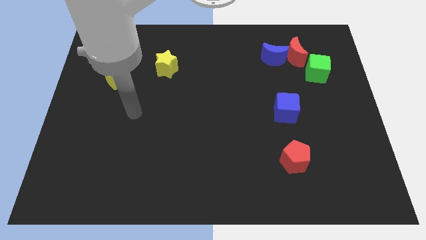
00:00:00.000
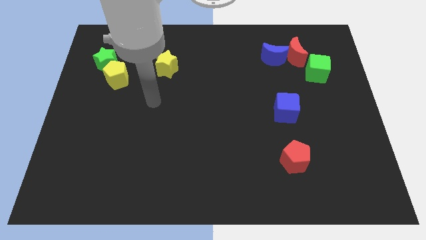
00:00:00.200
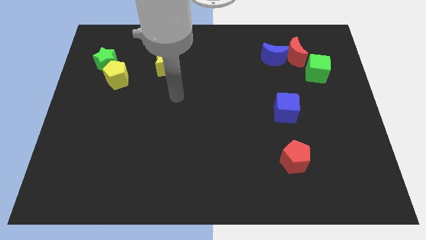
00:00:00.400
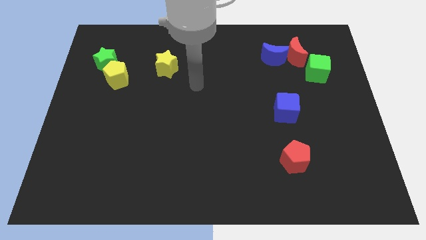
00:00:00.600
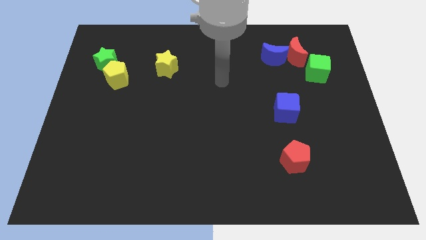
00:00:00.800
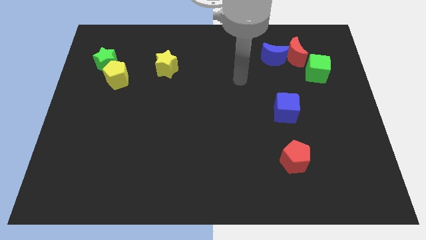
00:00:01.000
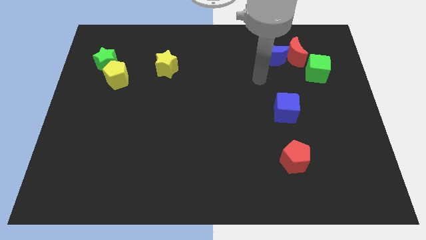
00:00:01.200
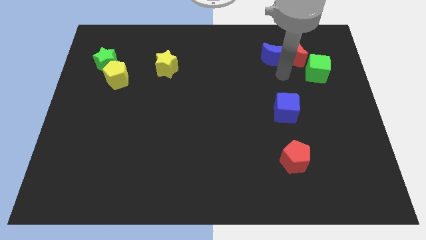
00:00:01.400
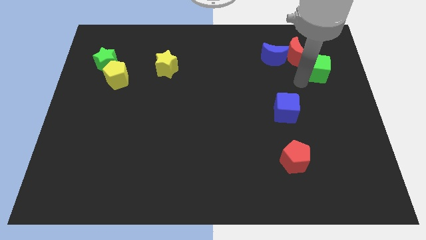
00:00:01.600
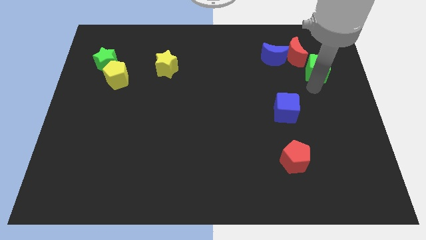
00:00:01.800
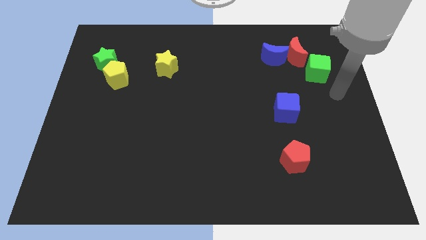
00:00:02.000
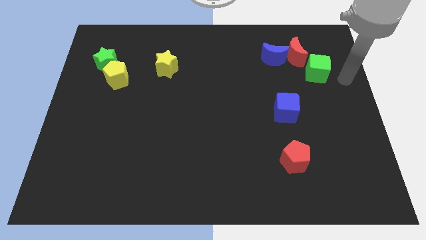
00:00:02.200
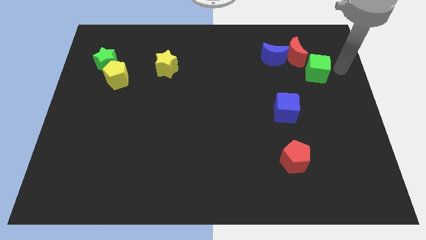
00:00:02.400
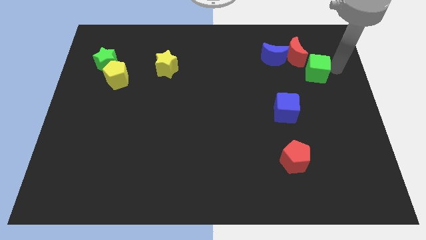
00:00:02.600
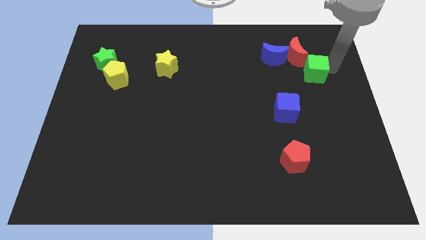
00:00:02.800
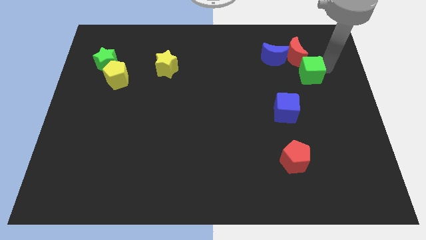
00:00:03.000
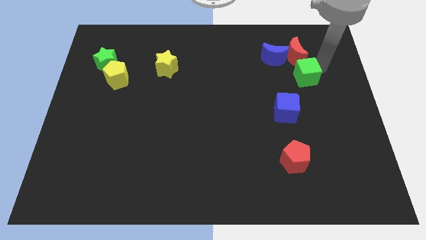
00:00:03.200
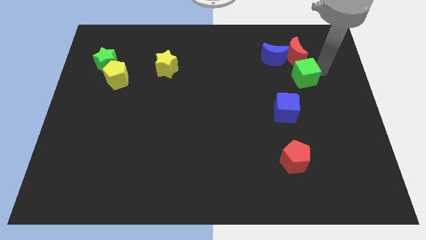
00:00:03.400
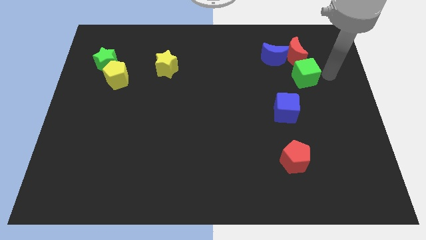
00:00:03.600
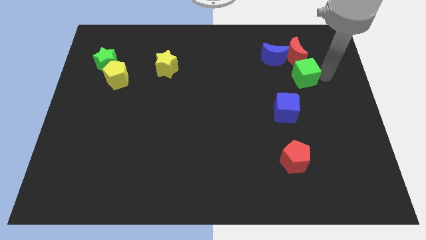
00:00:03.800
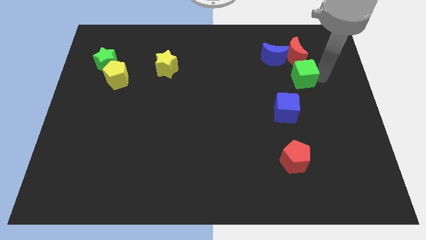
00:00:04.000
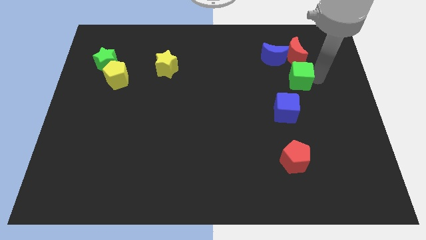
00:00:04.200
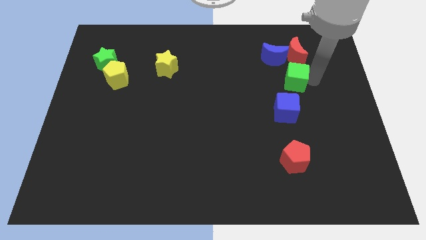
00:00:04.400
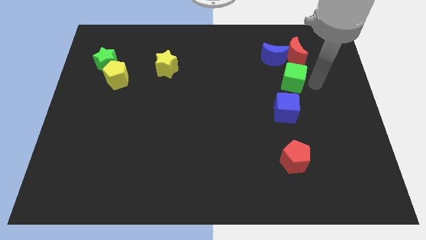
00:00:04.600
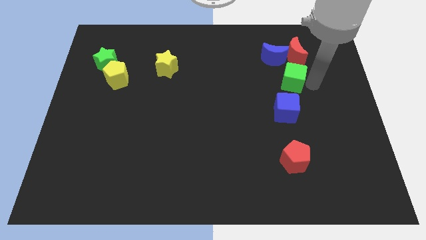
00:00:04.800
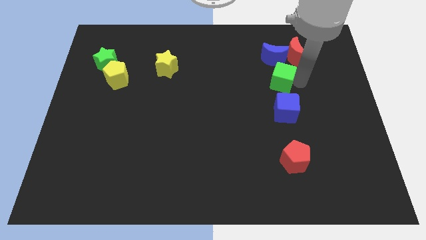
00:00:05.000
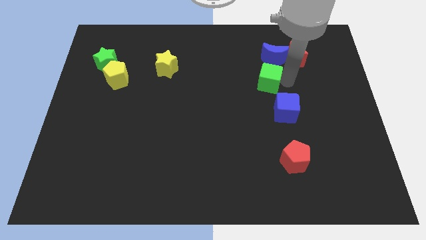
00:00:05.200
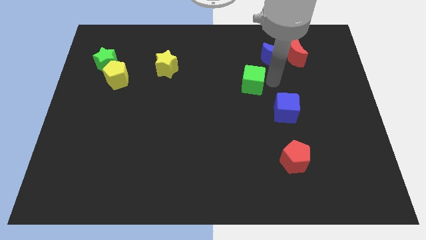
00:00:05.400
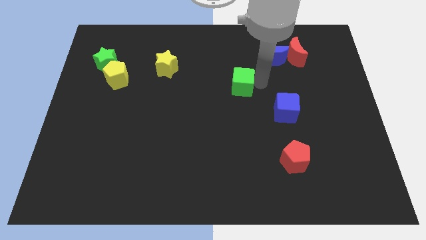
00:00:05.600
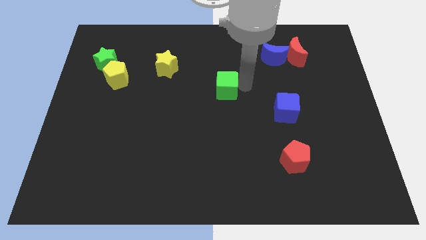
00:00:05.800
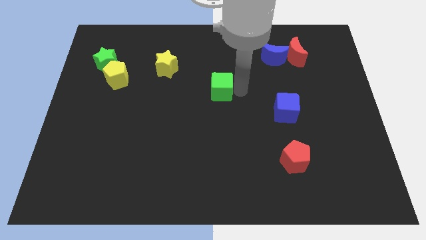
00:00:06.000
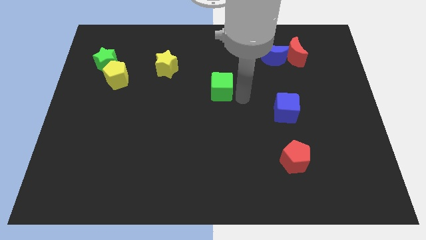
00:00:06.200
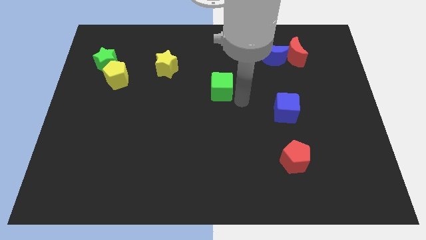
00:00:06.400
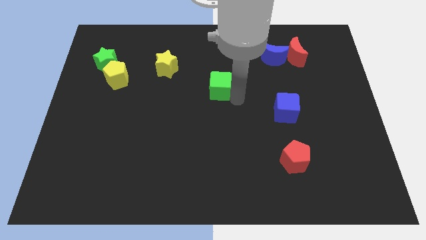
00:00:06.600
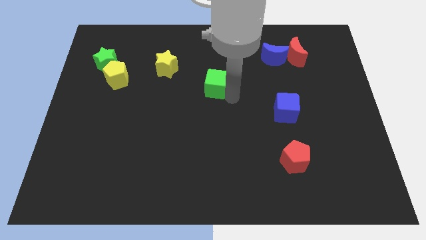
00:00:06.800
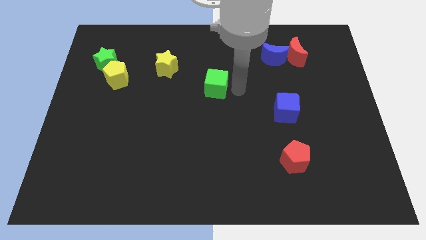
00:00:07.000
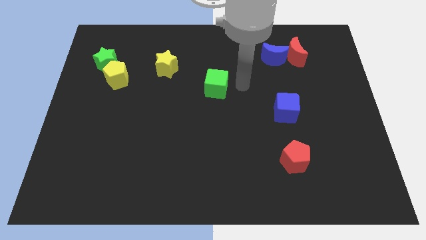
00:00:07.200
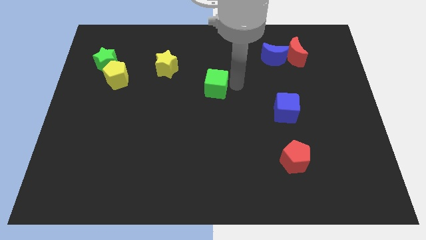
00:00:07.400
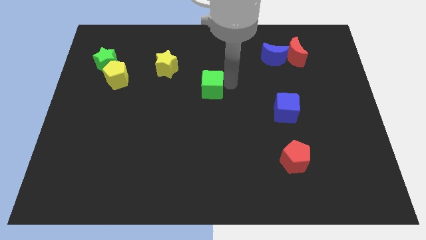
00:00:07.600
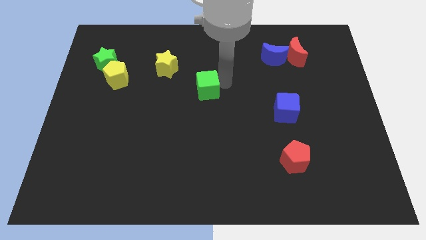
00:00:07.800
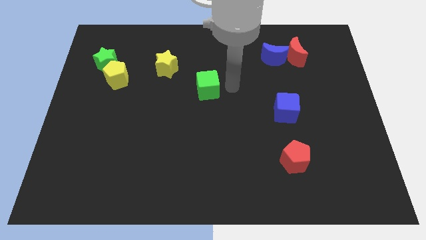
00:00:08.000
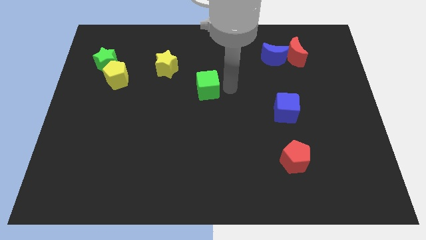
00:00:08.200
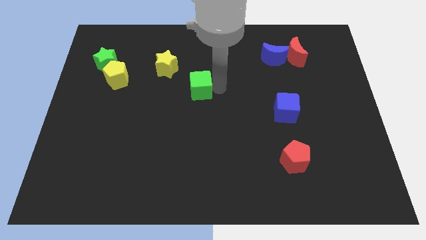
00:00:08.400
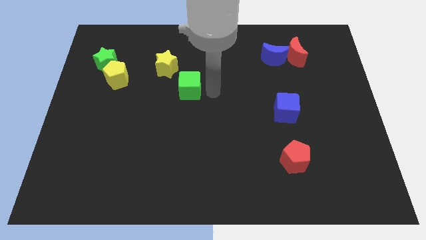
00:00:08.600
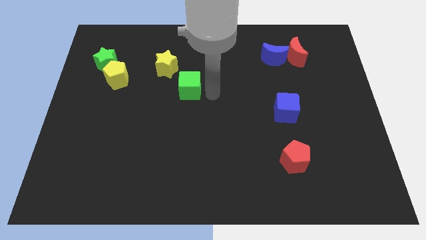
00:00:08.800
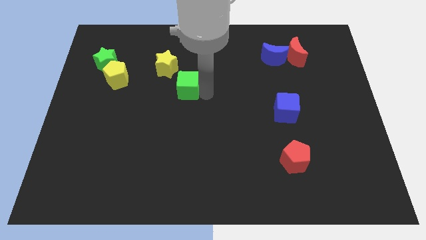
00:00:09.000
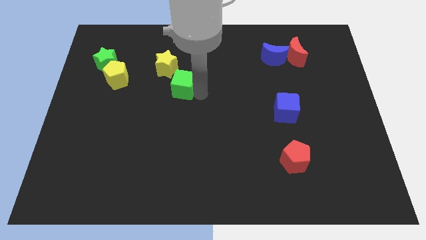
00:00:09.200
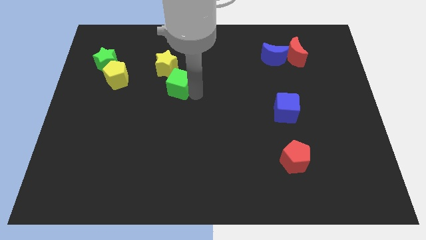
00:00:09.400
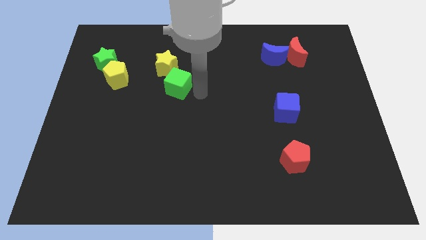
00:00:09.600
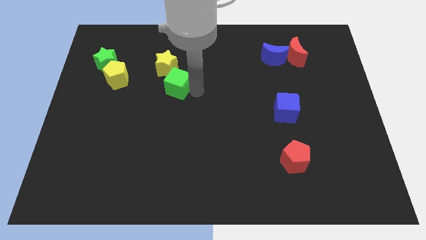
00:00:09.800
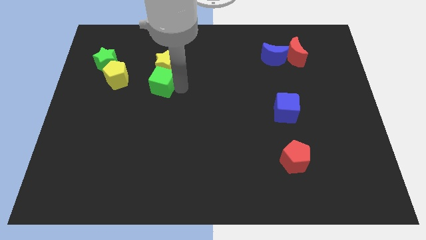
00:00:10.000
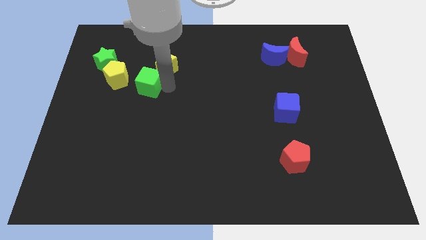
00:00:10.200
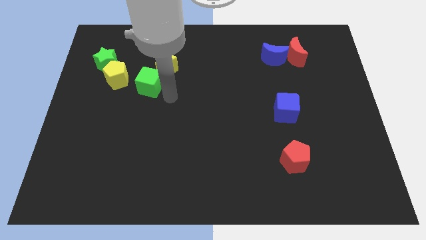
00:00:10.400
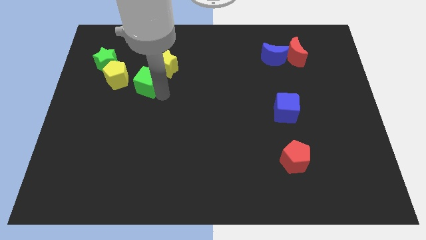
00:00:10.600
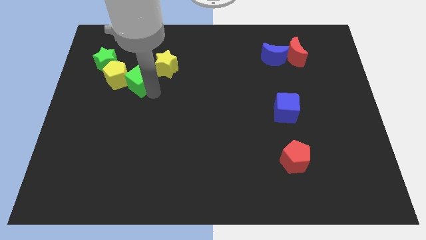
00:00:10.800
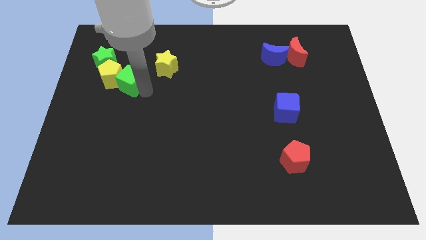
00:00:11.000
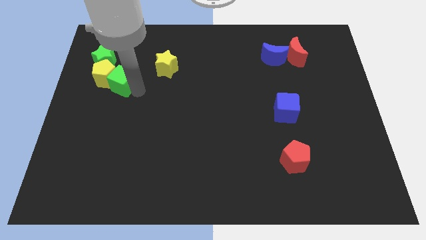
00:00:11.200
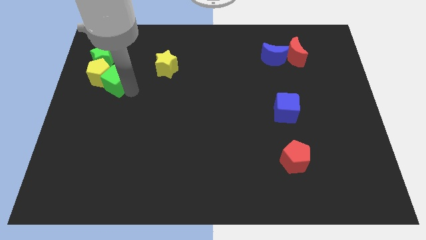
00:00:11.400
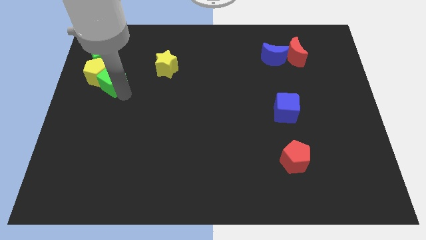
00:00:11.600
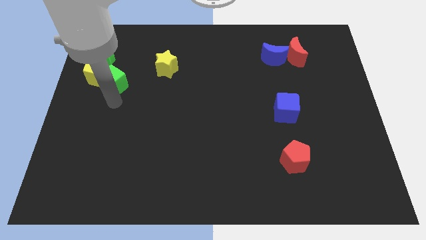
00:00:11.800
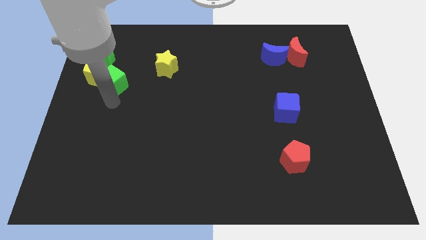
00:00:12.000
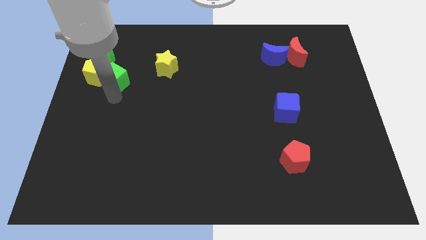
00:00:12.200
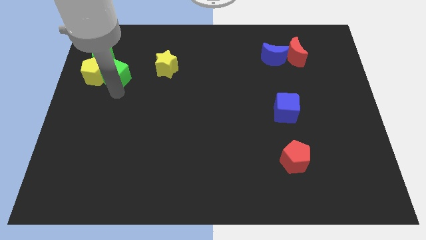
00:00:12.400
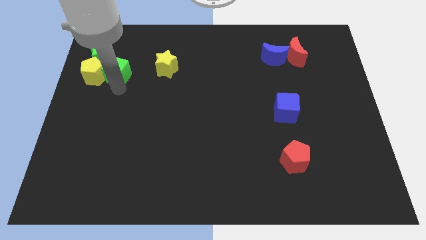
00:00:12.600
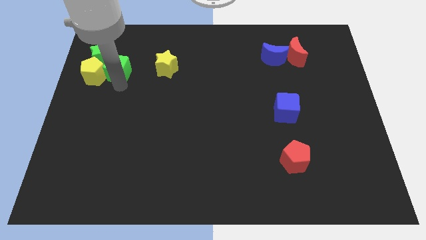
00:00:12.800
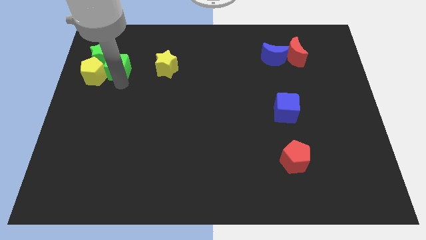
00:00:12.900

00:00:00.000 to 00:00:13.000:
move the green cube close to the green star

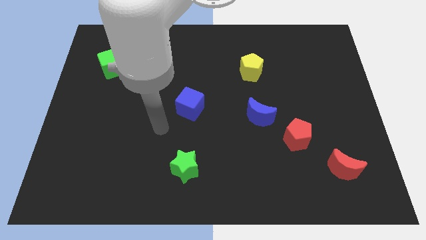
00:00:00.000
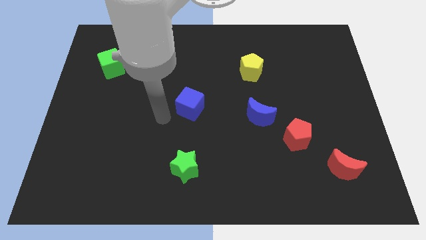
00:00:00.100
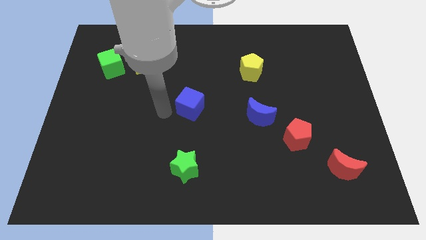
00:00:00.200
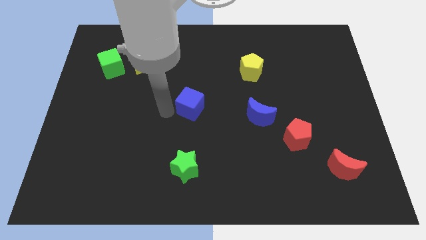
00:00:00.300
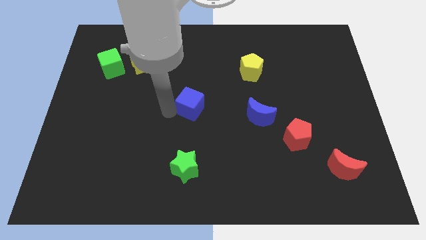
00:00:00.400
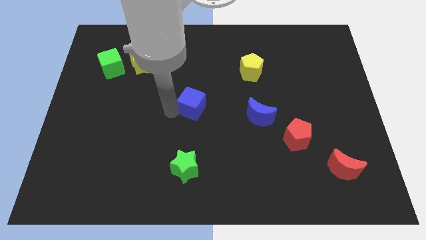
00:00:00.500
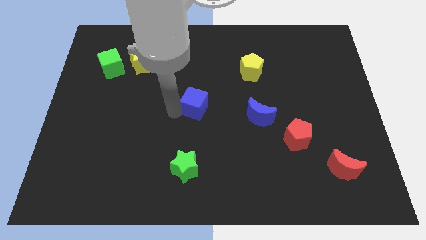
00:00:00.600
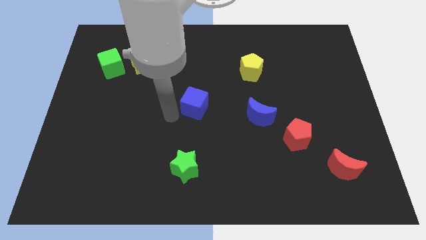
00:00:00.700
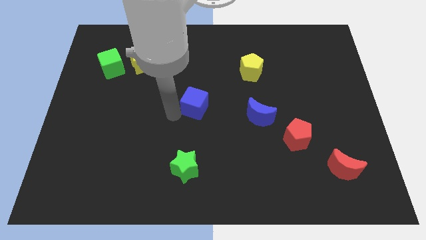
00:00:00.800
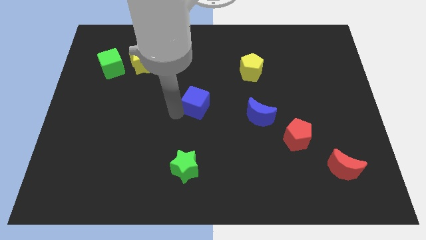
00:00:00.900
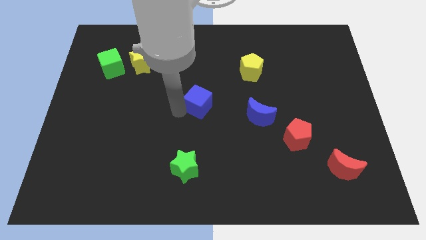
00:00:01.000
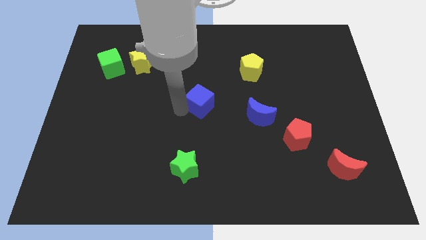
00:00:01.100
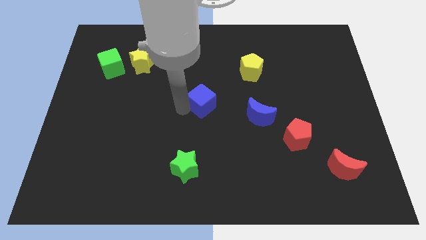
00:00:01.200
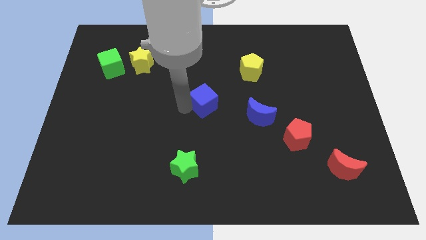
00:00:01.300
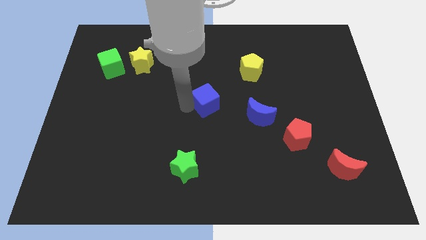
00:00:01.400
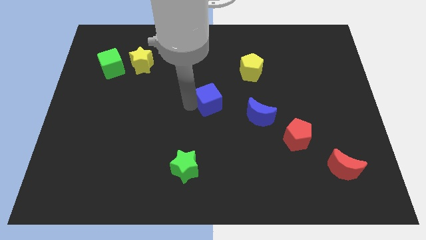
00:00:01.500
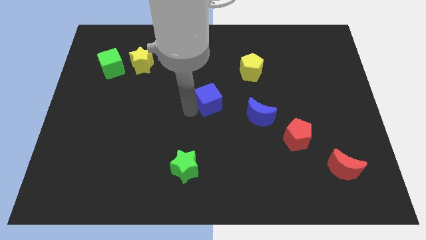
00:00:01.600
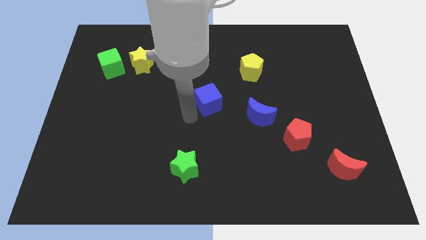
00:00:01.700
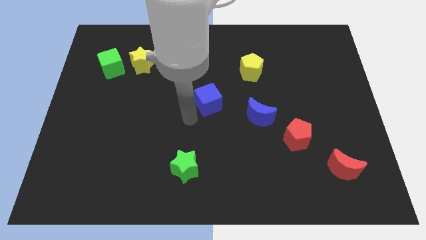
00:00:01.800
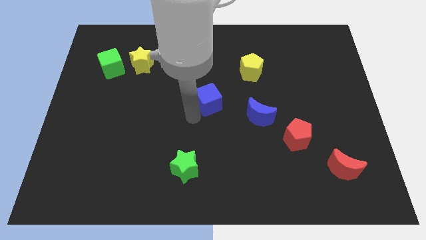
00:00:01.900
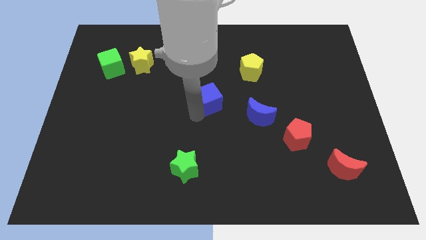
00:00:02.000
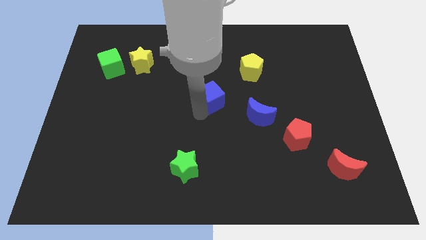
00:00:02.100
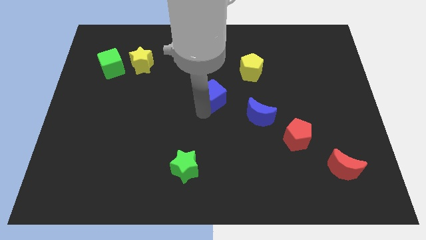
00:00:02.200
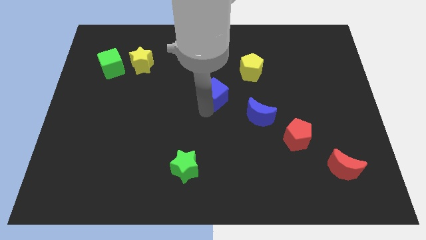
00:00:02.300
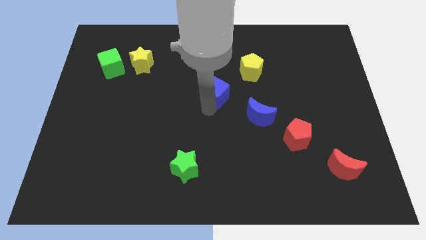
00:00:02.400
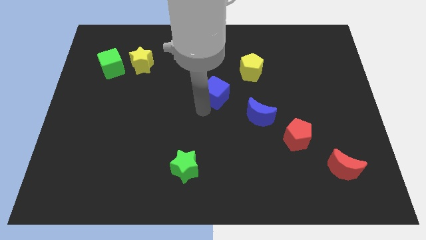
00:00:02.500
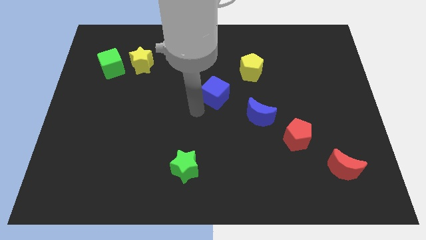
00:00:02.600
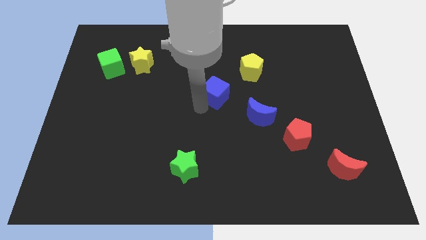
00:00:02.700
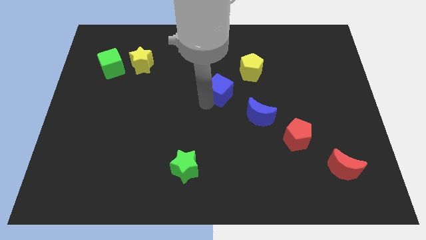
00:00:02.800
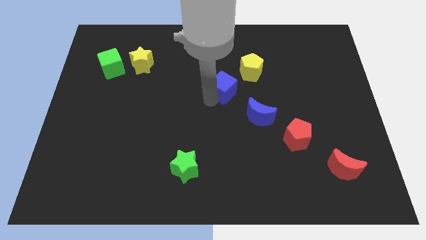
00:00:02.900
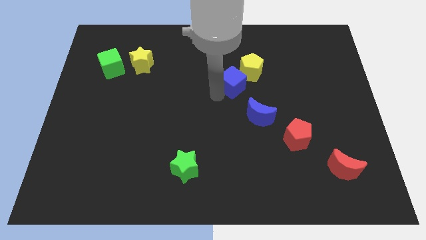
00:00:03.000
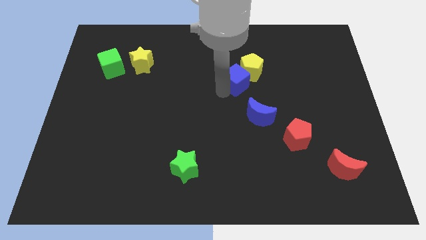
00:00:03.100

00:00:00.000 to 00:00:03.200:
move the blue cube next to the yellow pentagon
